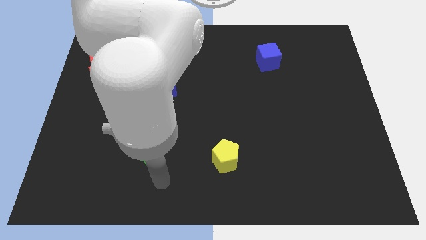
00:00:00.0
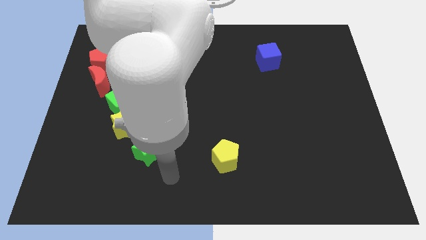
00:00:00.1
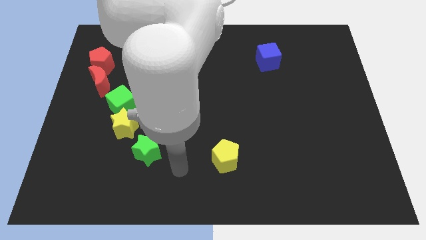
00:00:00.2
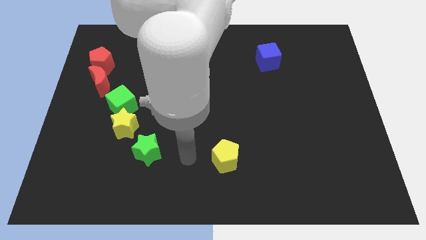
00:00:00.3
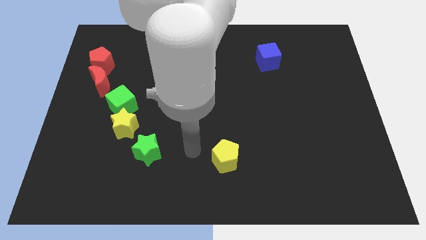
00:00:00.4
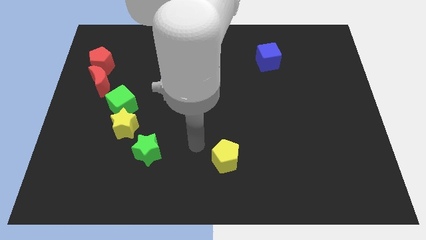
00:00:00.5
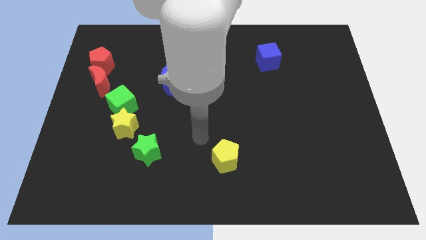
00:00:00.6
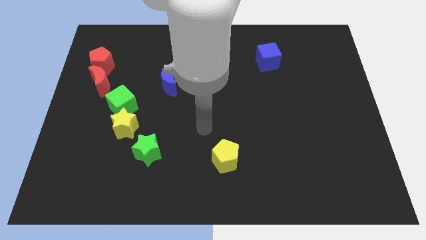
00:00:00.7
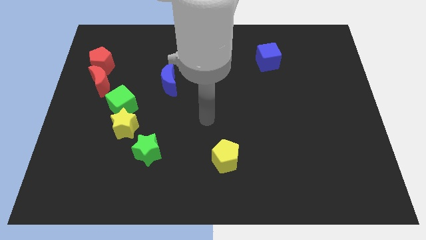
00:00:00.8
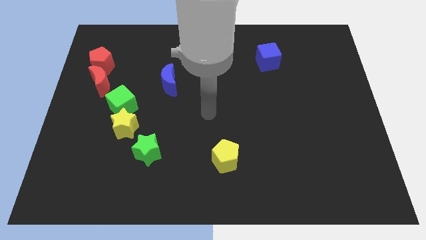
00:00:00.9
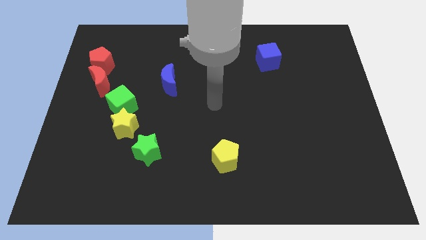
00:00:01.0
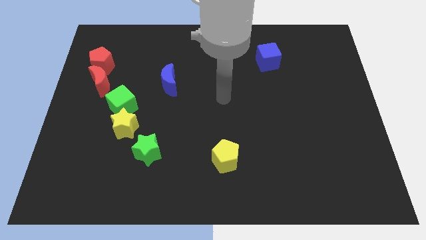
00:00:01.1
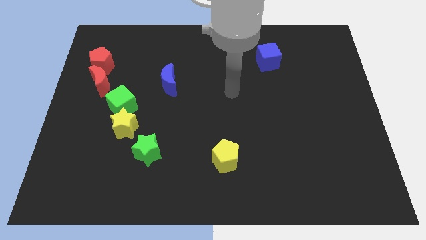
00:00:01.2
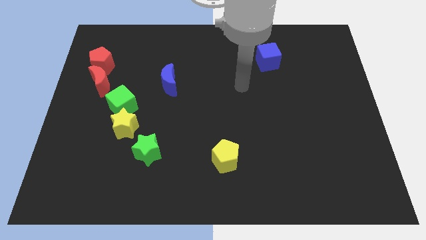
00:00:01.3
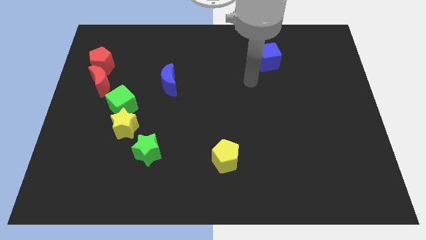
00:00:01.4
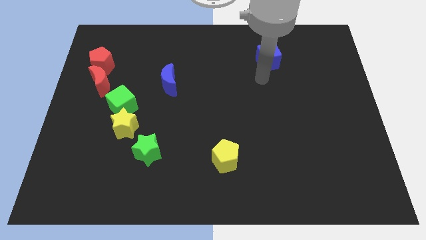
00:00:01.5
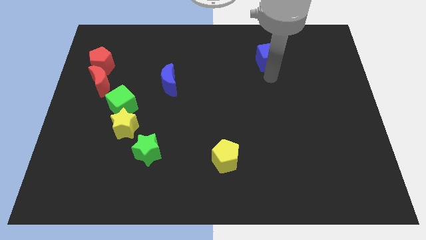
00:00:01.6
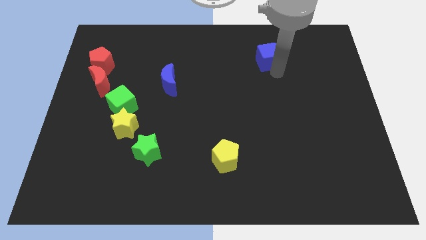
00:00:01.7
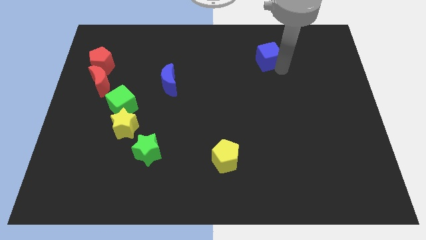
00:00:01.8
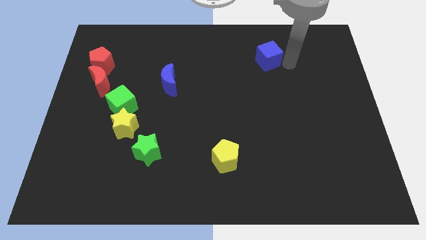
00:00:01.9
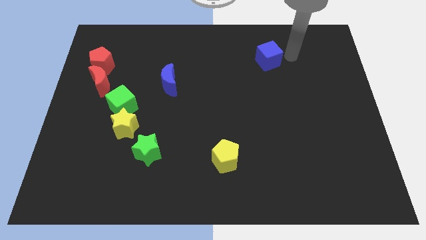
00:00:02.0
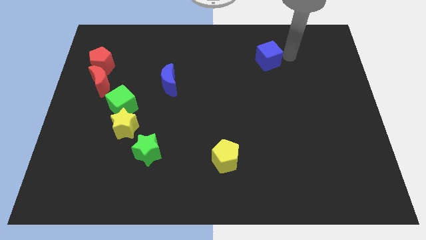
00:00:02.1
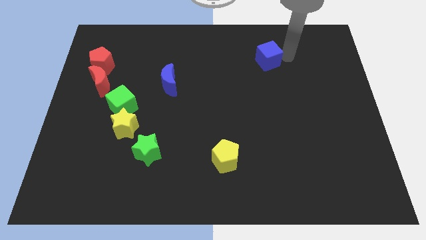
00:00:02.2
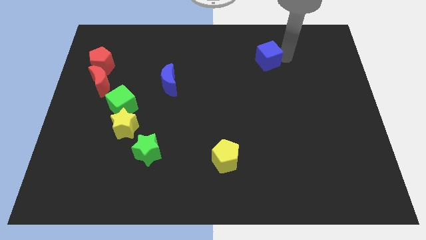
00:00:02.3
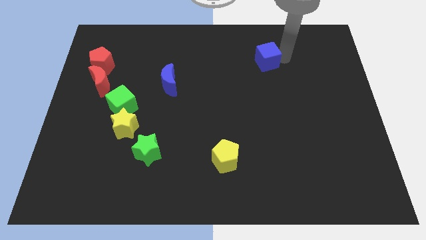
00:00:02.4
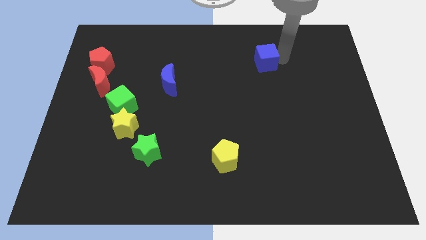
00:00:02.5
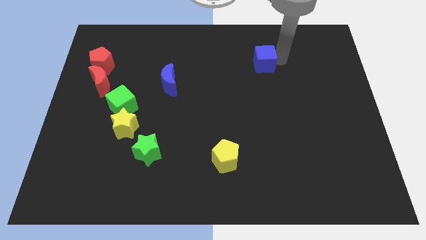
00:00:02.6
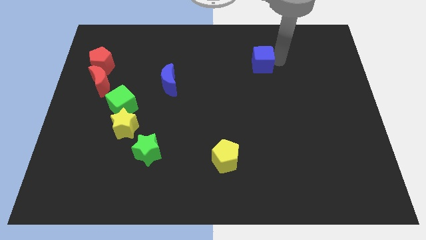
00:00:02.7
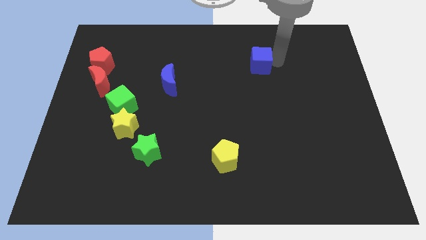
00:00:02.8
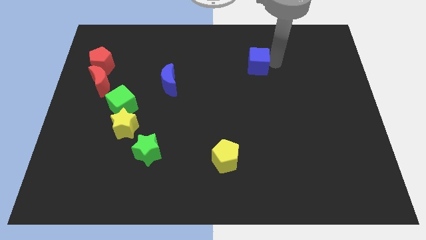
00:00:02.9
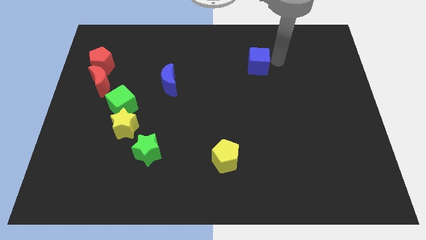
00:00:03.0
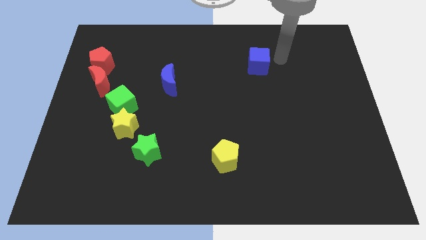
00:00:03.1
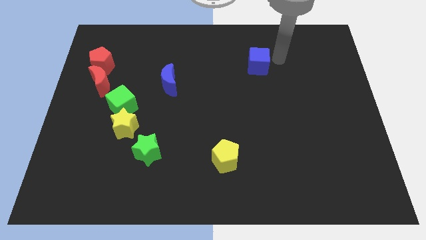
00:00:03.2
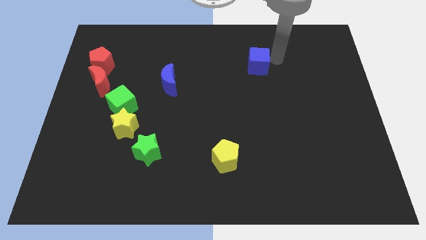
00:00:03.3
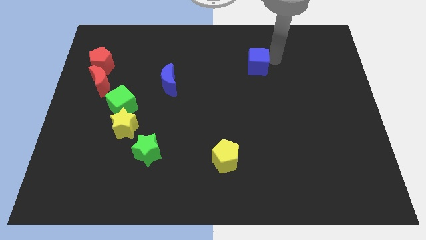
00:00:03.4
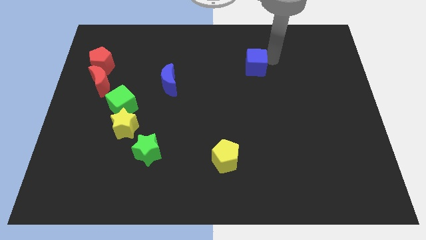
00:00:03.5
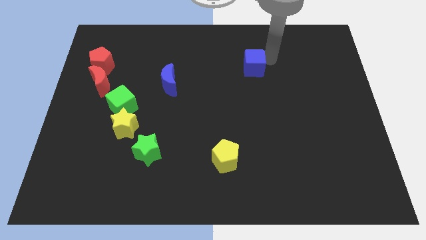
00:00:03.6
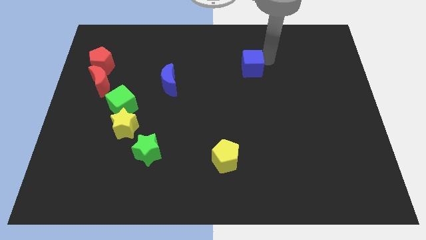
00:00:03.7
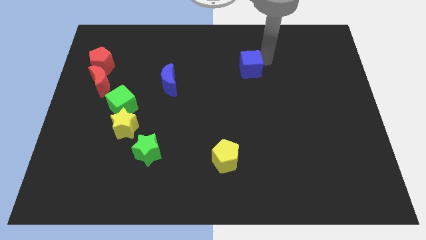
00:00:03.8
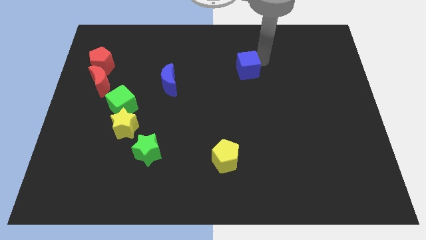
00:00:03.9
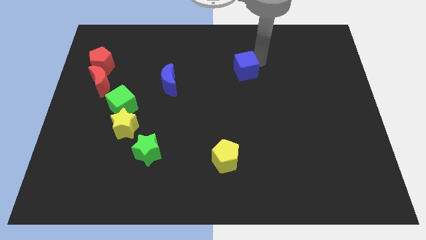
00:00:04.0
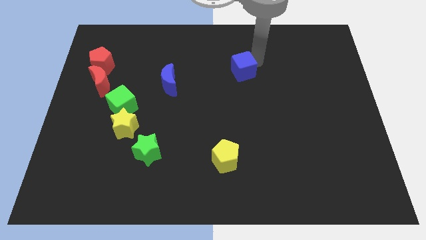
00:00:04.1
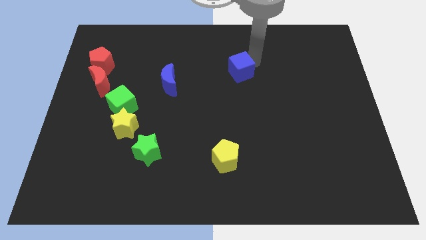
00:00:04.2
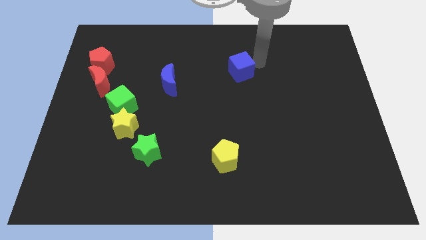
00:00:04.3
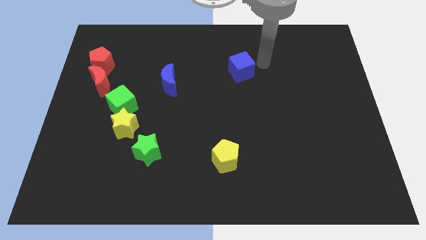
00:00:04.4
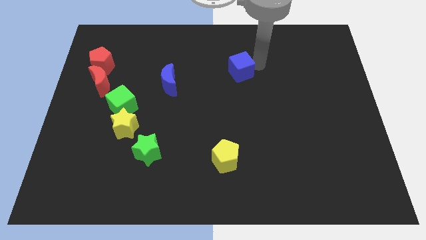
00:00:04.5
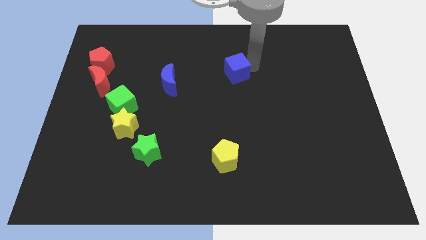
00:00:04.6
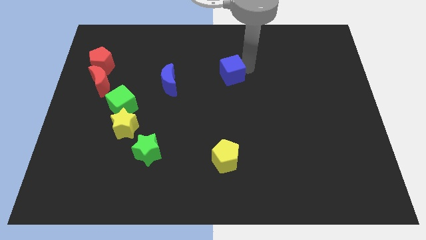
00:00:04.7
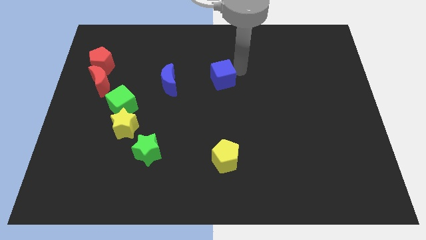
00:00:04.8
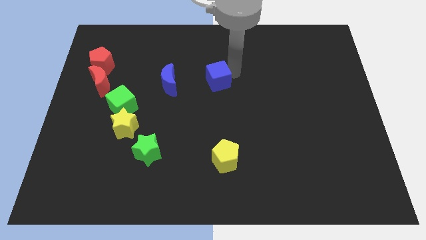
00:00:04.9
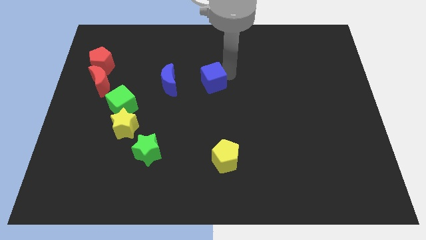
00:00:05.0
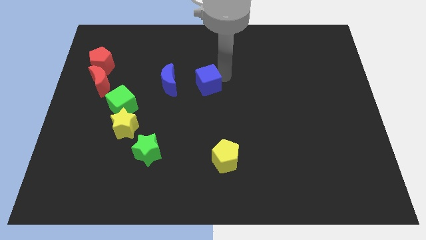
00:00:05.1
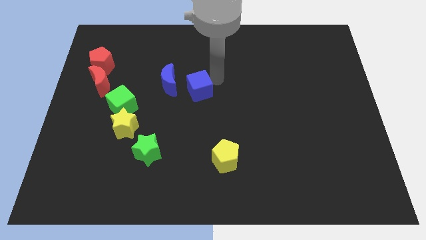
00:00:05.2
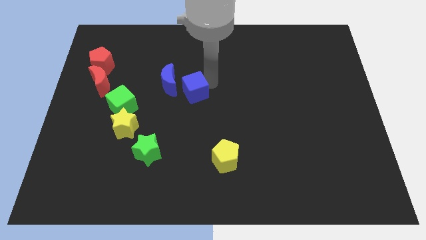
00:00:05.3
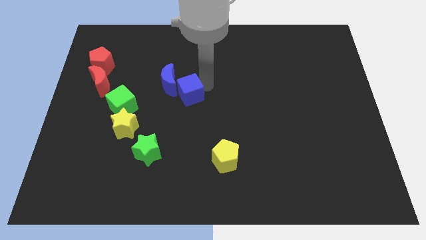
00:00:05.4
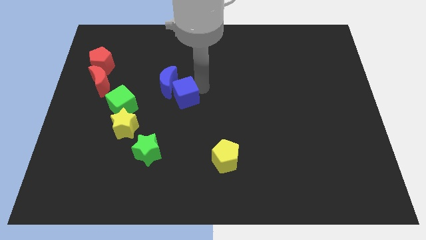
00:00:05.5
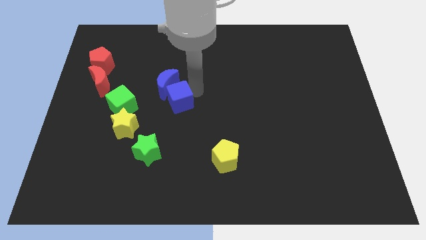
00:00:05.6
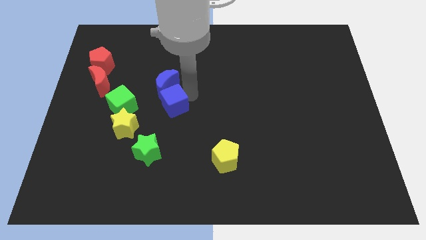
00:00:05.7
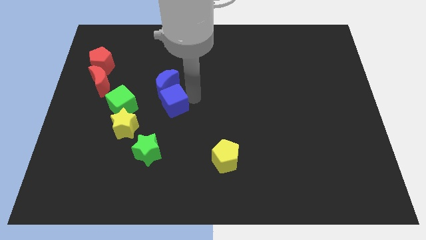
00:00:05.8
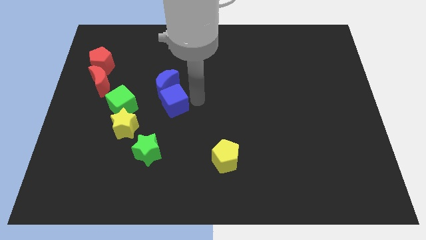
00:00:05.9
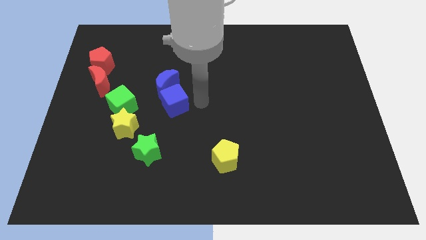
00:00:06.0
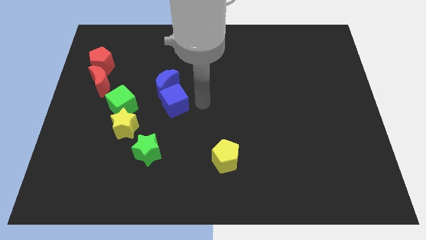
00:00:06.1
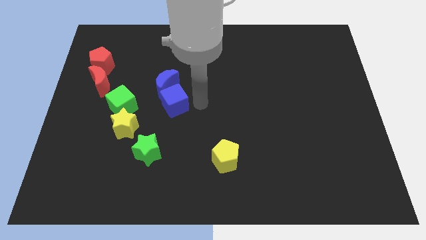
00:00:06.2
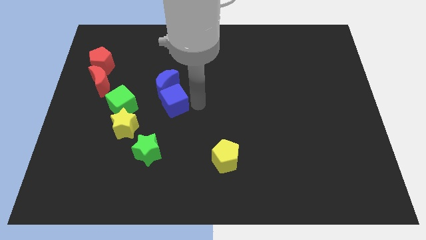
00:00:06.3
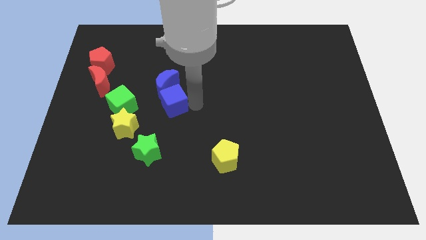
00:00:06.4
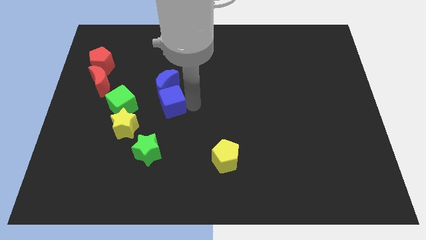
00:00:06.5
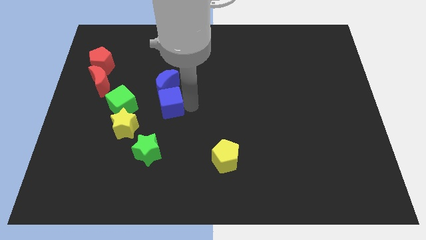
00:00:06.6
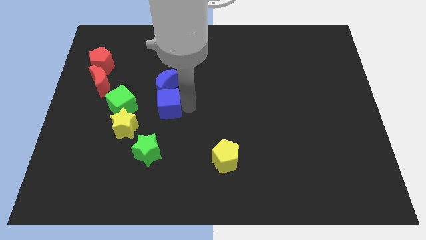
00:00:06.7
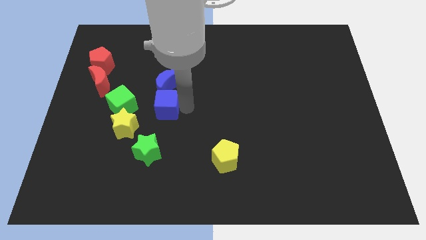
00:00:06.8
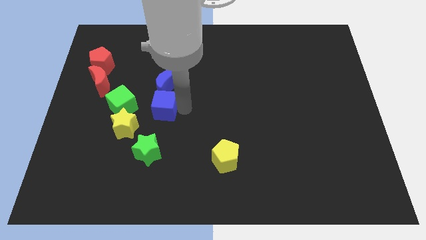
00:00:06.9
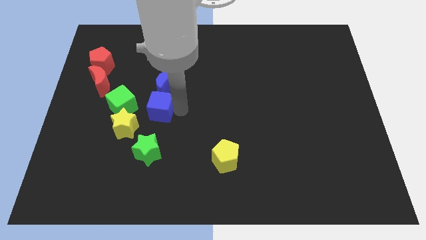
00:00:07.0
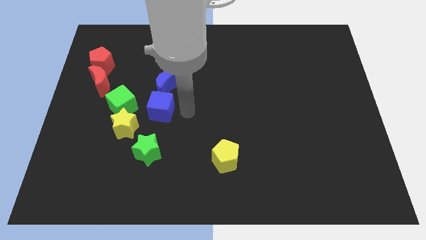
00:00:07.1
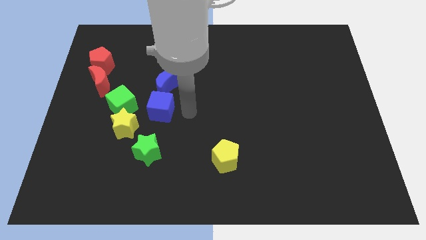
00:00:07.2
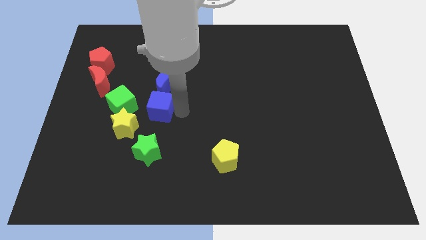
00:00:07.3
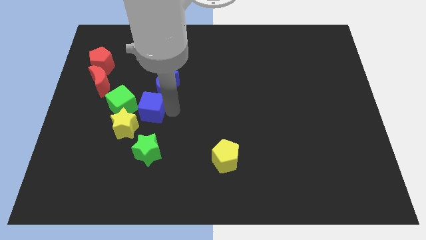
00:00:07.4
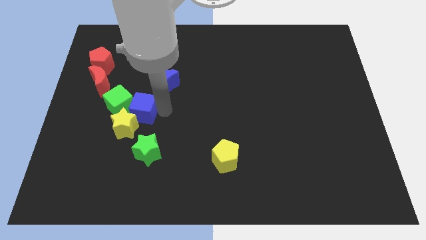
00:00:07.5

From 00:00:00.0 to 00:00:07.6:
put the blue cube next to the green cube
